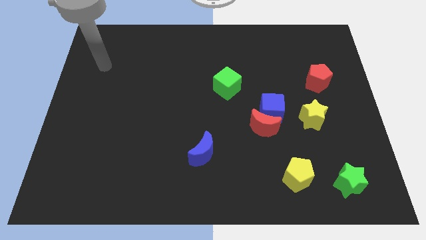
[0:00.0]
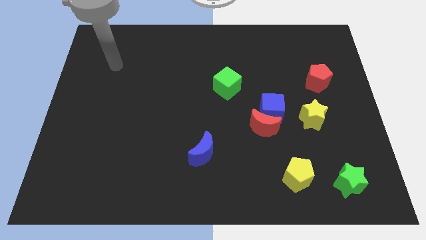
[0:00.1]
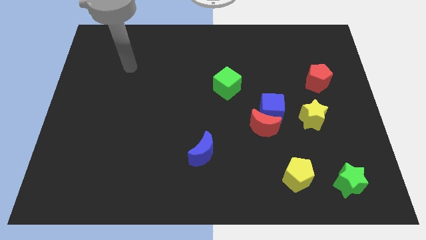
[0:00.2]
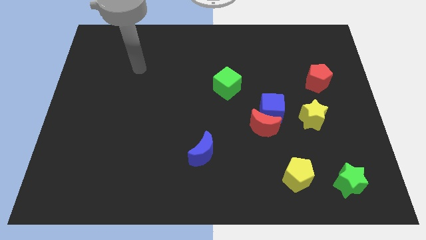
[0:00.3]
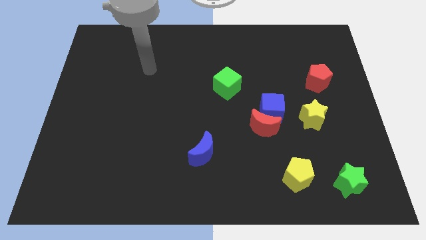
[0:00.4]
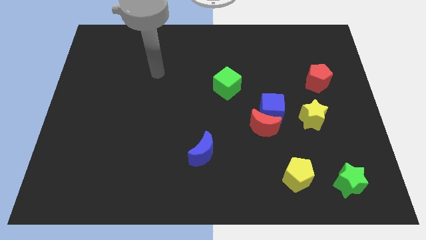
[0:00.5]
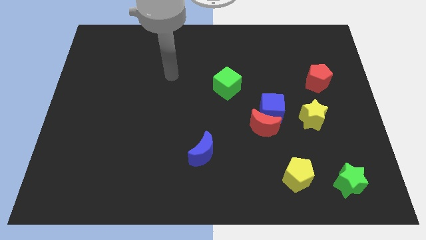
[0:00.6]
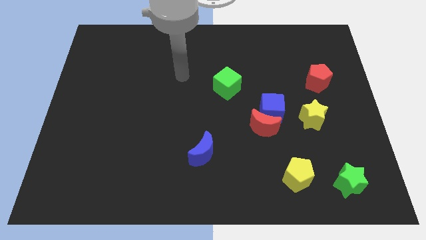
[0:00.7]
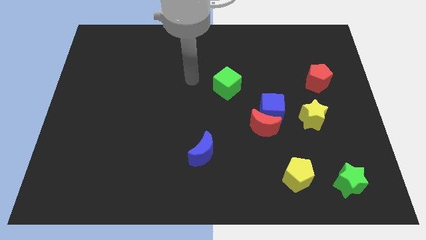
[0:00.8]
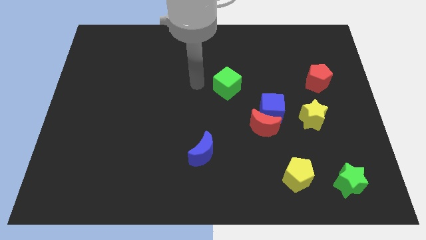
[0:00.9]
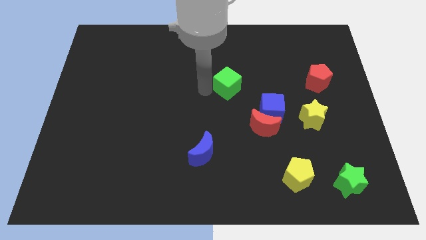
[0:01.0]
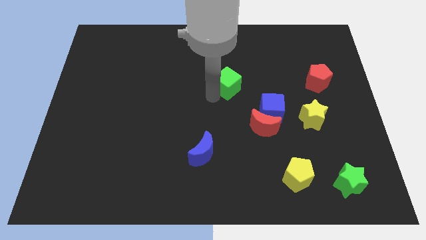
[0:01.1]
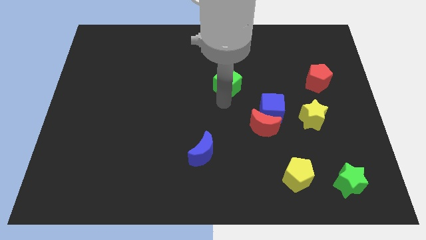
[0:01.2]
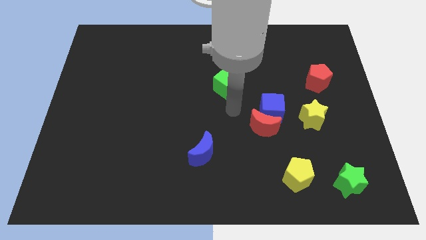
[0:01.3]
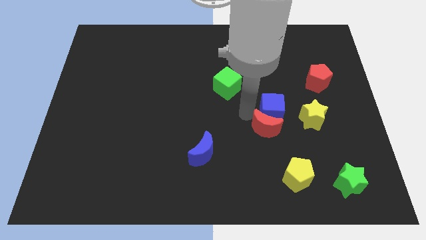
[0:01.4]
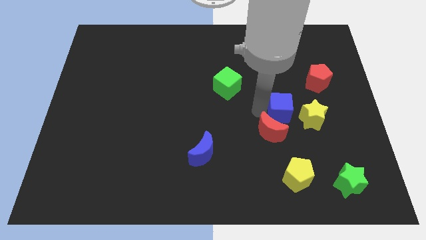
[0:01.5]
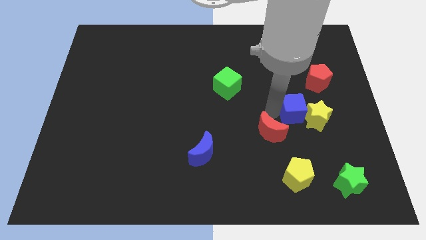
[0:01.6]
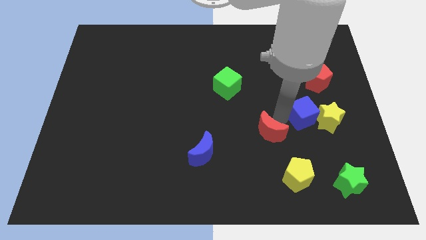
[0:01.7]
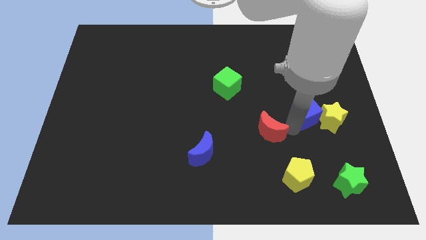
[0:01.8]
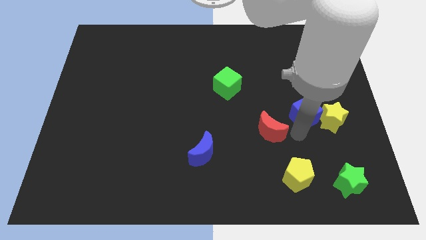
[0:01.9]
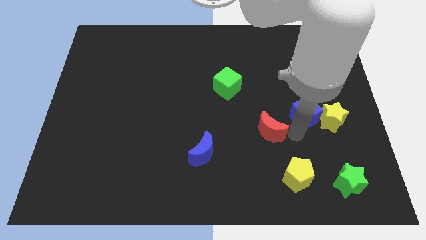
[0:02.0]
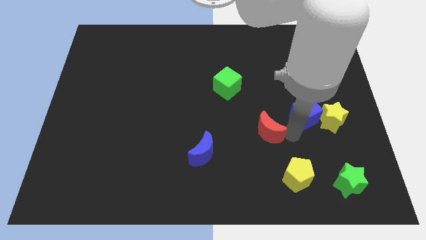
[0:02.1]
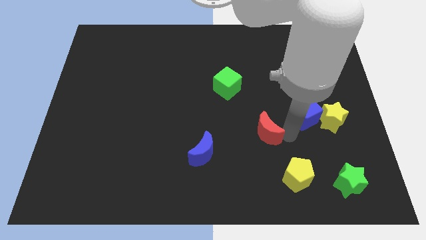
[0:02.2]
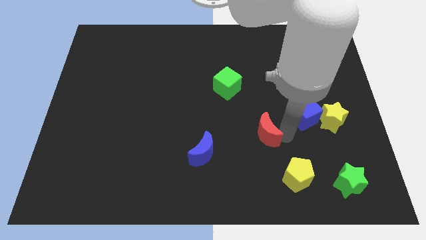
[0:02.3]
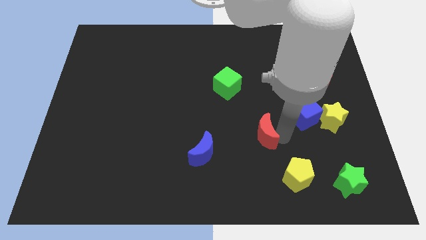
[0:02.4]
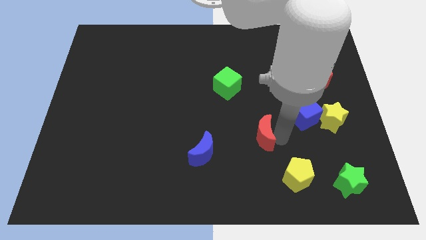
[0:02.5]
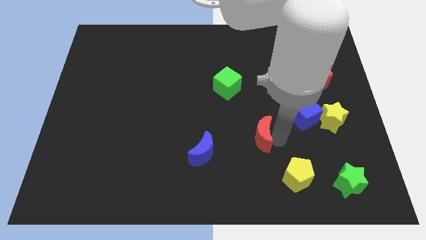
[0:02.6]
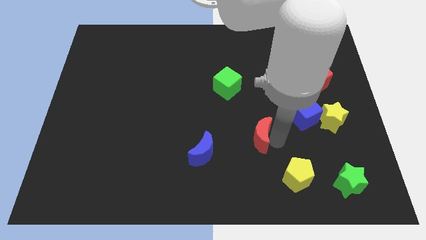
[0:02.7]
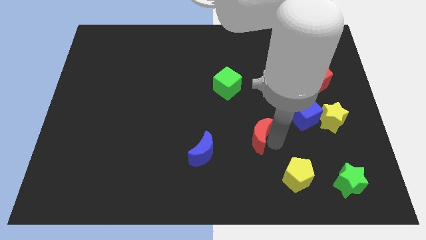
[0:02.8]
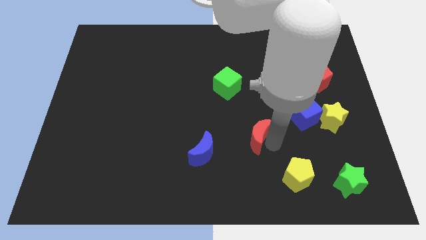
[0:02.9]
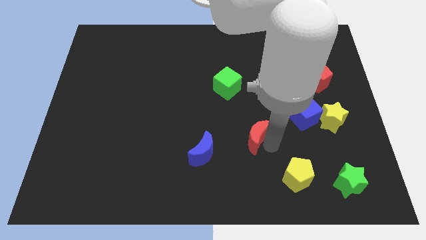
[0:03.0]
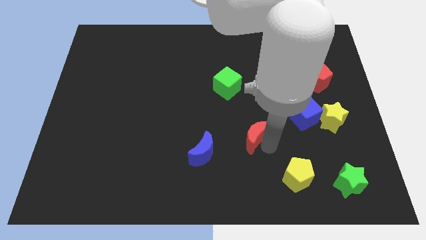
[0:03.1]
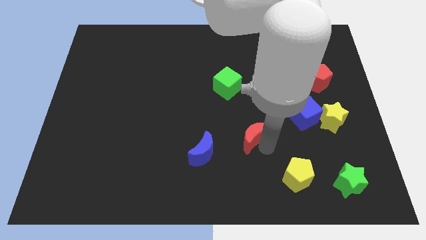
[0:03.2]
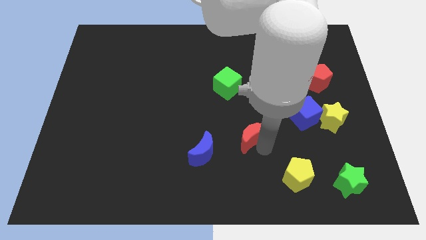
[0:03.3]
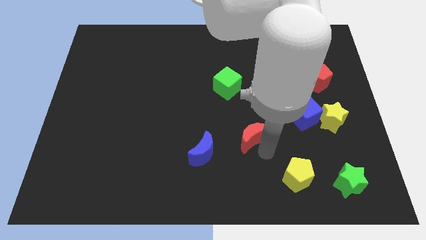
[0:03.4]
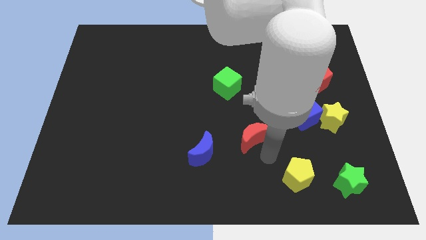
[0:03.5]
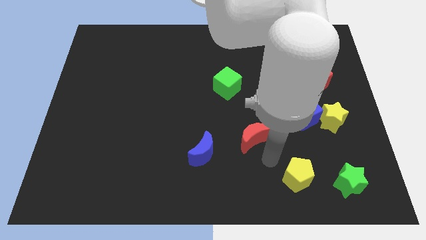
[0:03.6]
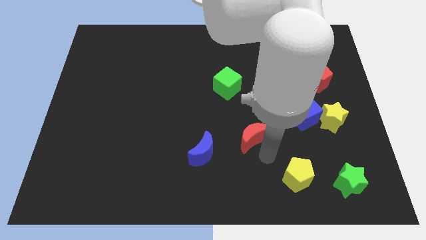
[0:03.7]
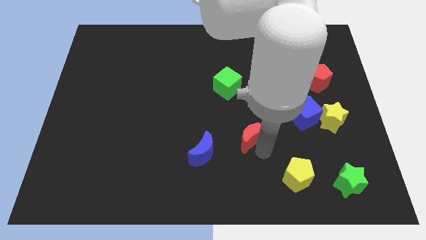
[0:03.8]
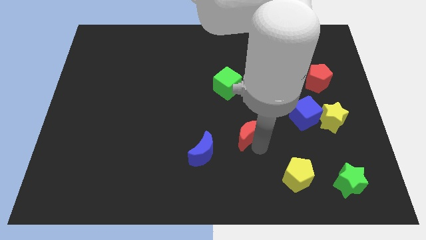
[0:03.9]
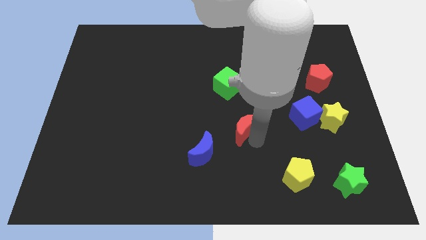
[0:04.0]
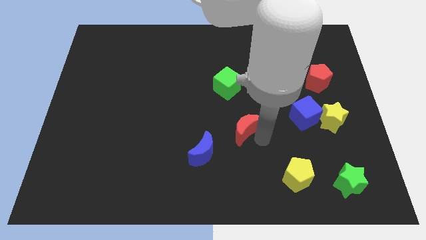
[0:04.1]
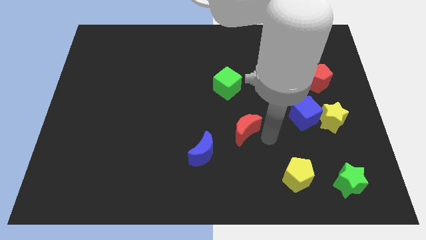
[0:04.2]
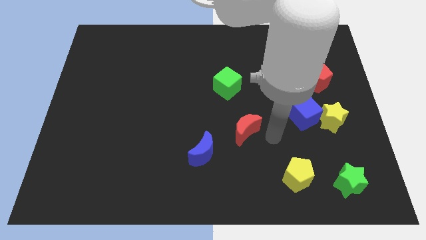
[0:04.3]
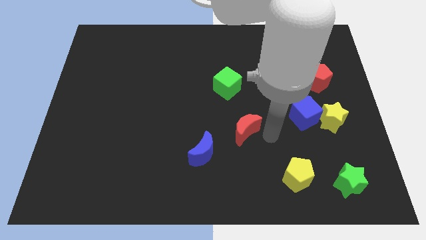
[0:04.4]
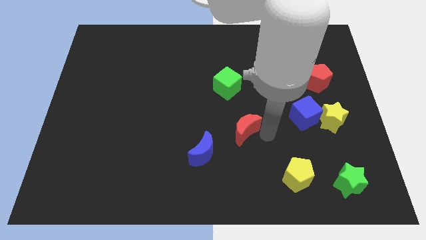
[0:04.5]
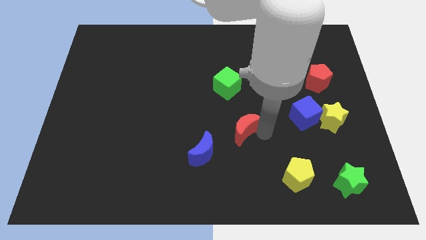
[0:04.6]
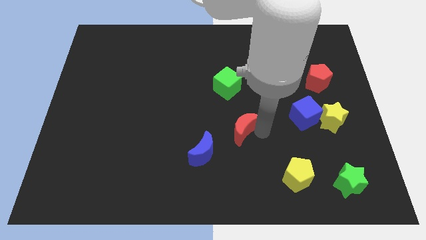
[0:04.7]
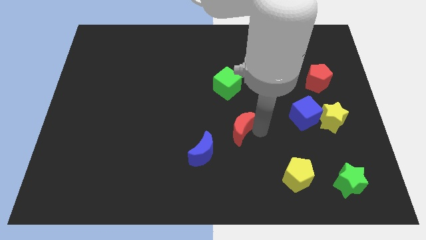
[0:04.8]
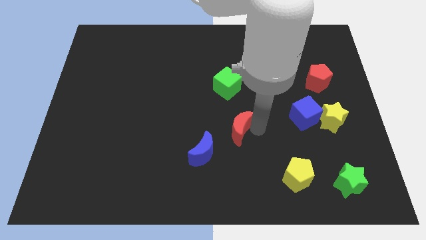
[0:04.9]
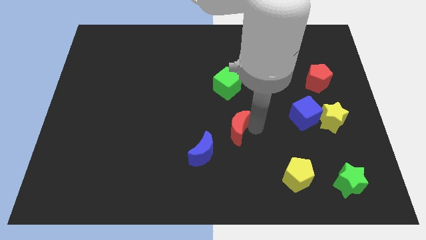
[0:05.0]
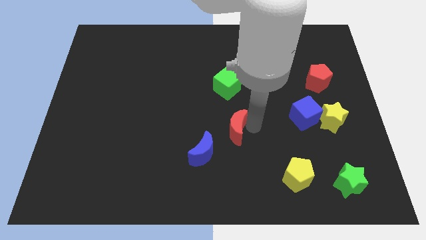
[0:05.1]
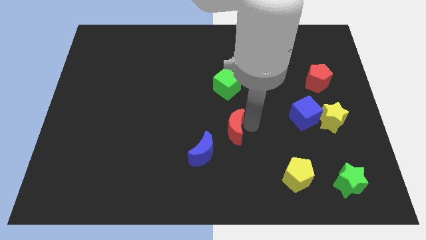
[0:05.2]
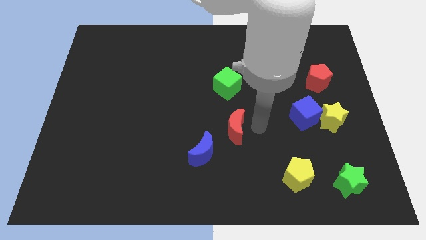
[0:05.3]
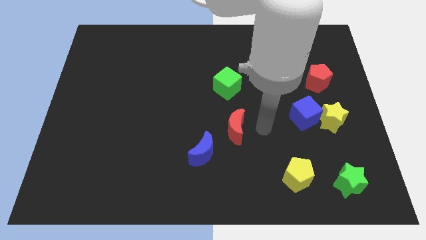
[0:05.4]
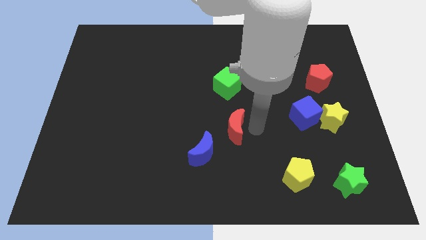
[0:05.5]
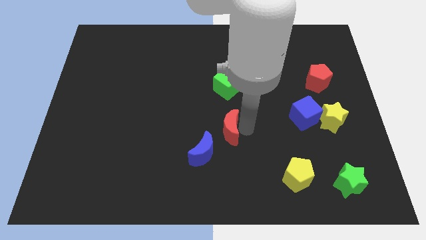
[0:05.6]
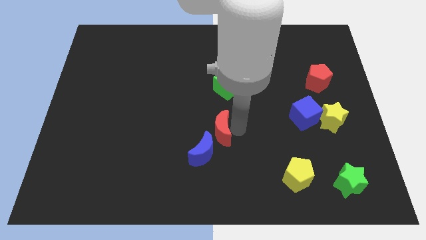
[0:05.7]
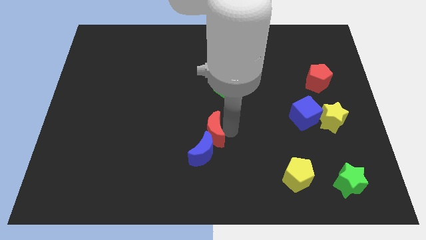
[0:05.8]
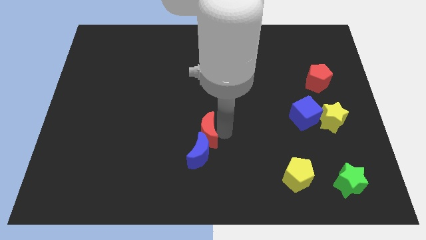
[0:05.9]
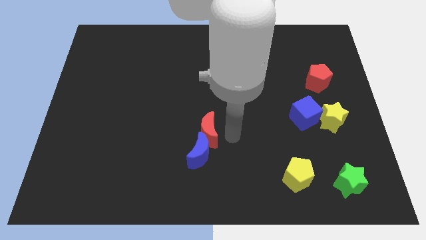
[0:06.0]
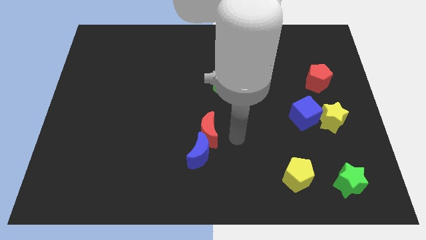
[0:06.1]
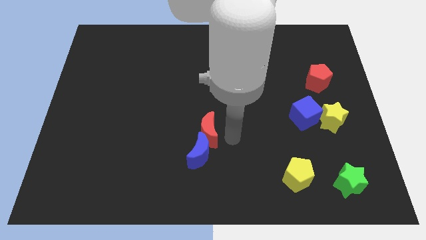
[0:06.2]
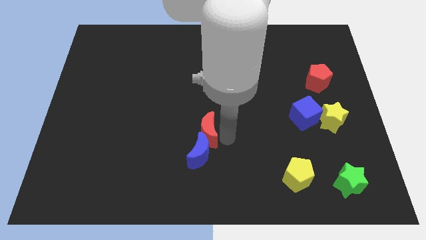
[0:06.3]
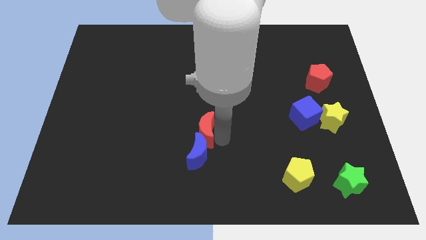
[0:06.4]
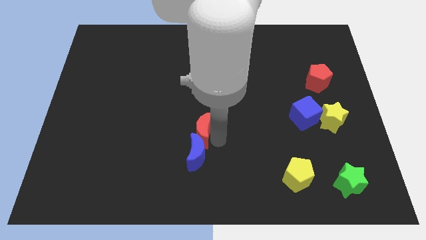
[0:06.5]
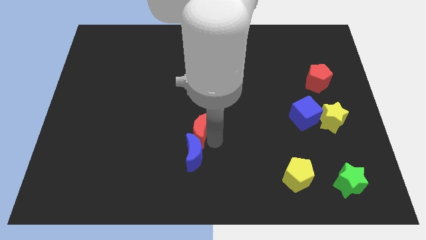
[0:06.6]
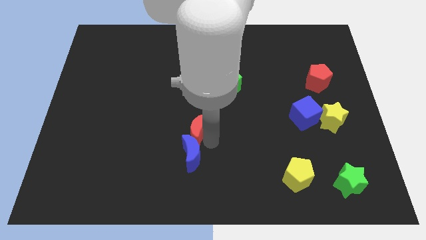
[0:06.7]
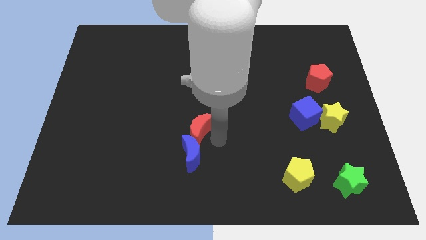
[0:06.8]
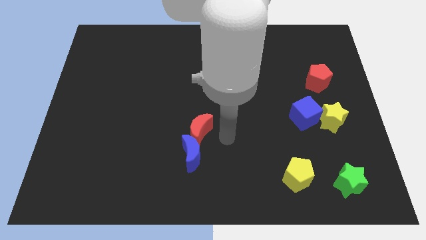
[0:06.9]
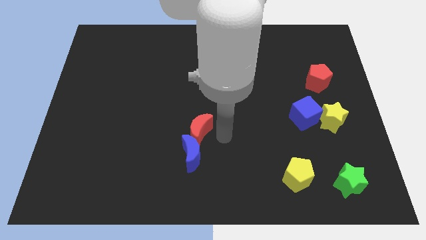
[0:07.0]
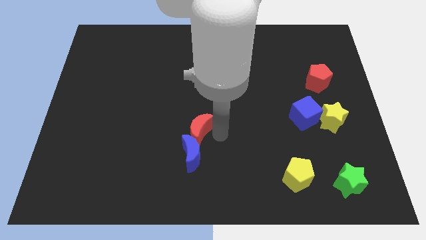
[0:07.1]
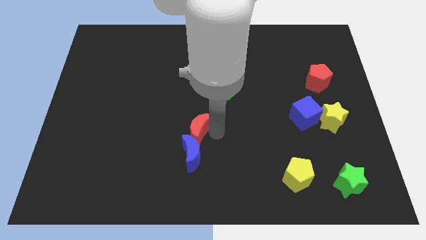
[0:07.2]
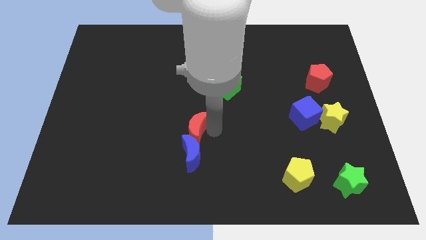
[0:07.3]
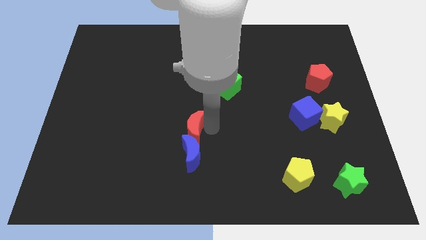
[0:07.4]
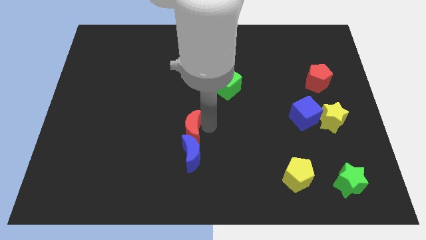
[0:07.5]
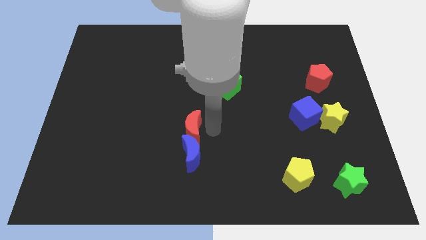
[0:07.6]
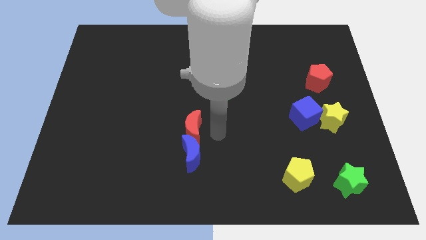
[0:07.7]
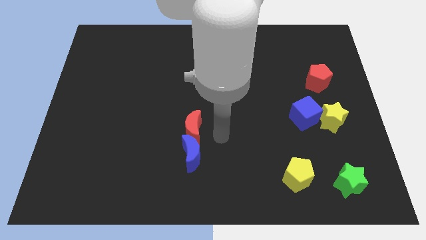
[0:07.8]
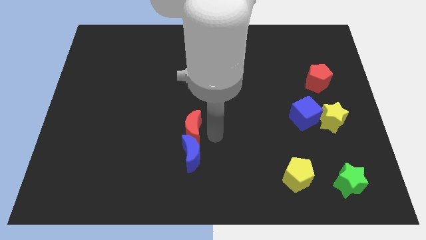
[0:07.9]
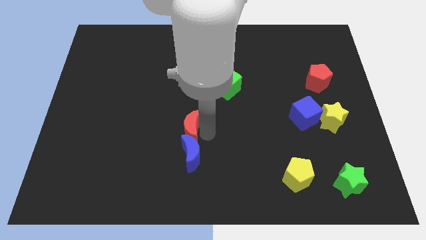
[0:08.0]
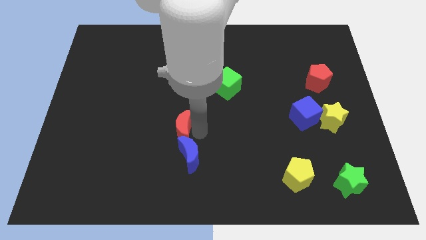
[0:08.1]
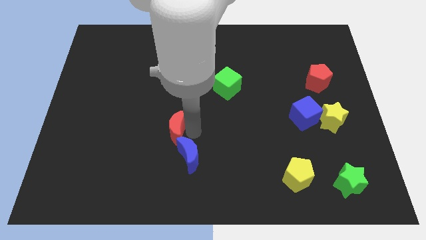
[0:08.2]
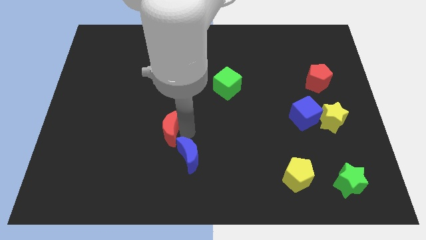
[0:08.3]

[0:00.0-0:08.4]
slide the red moon to the left
